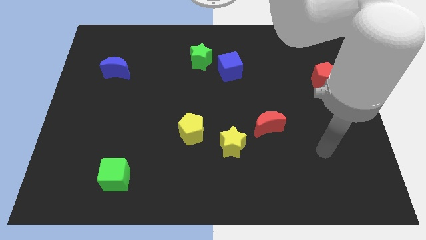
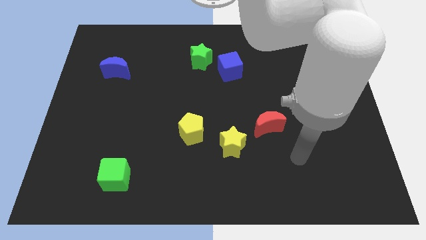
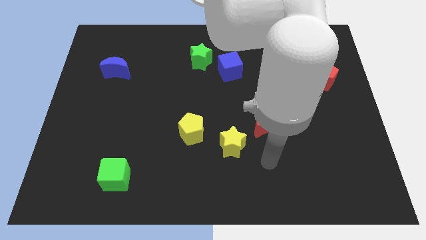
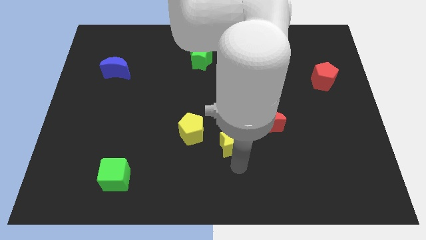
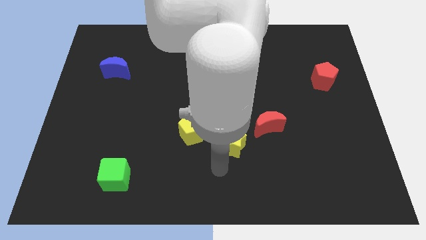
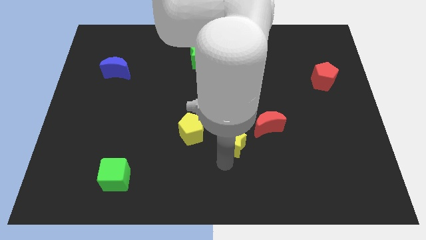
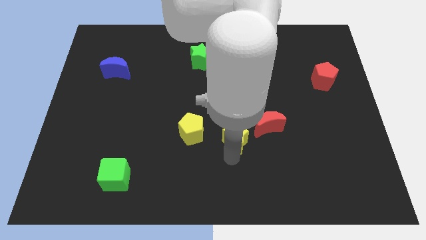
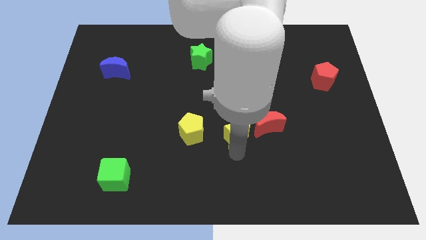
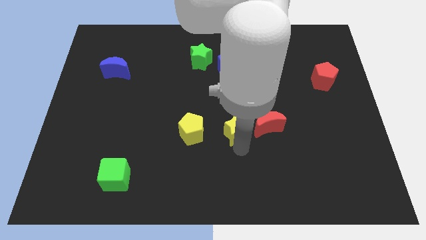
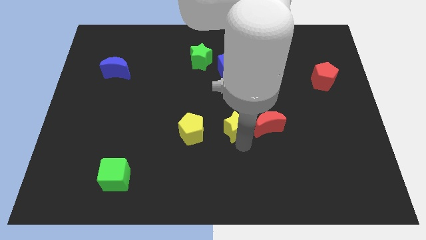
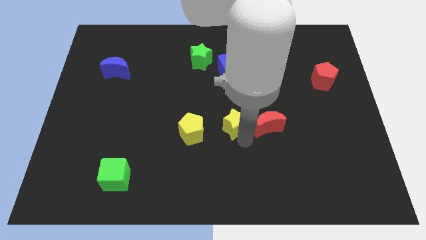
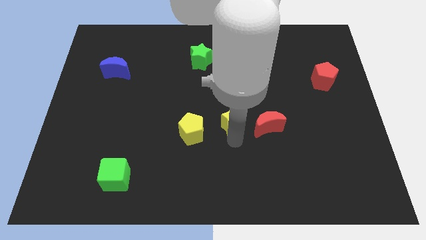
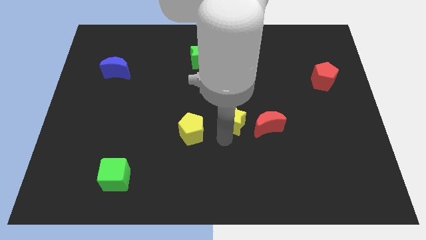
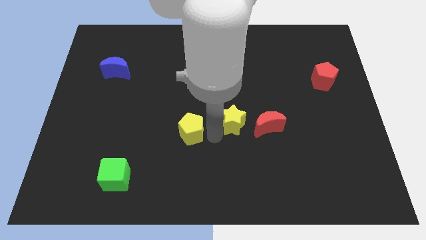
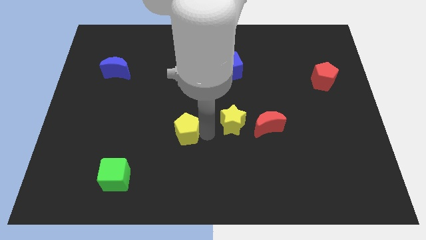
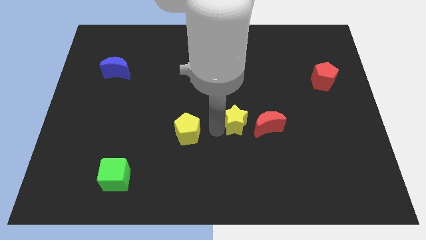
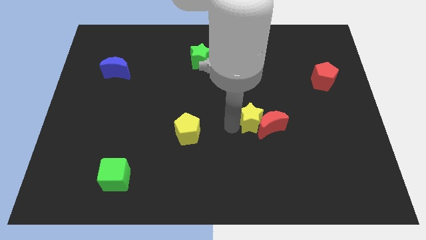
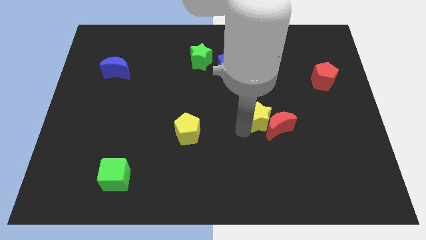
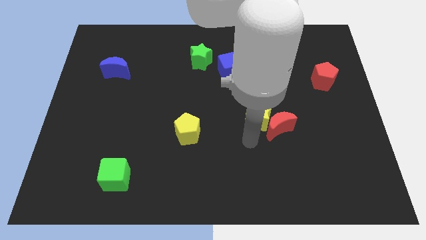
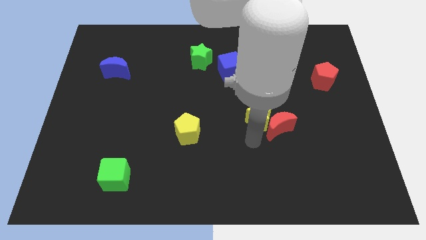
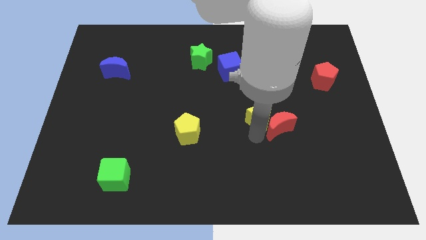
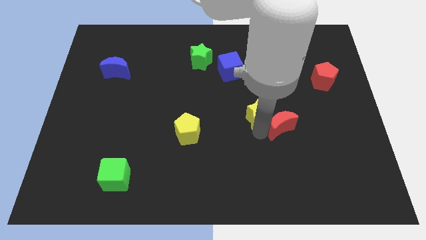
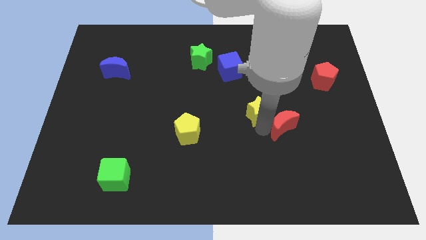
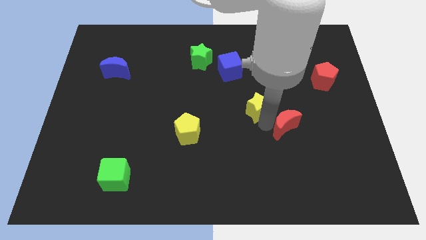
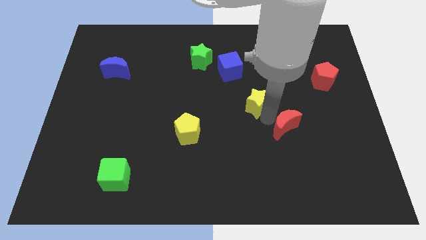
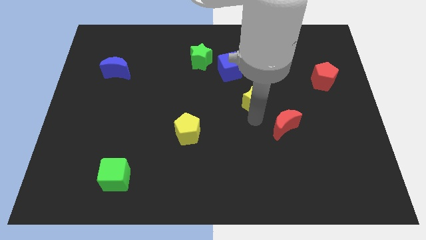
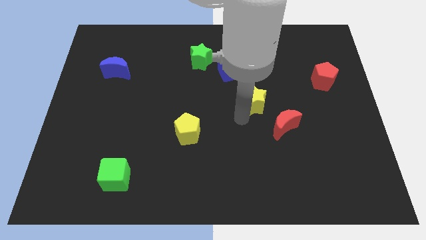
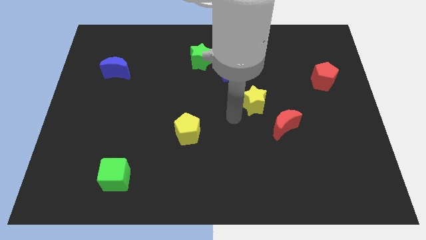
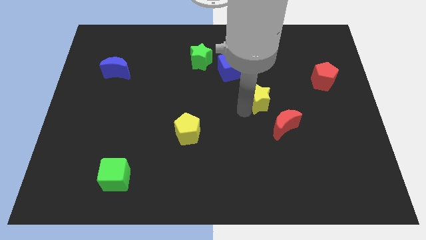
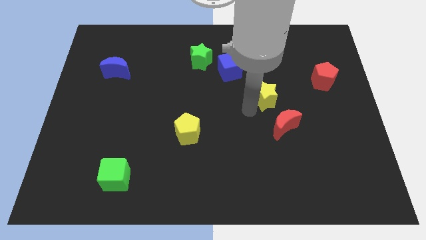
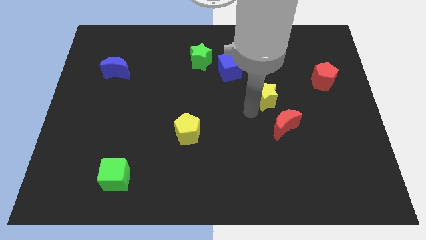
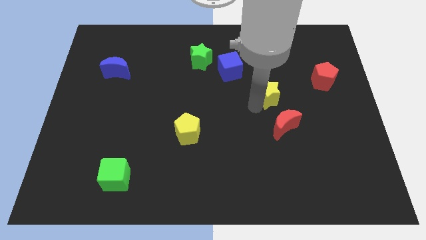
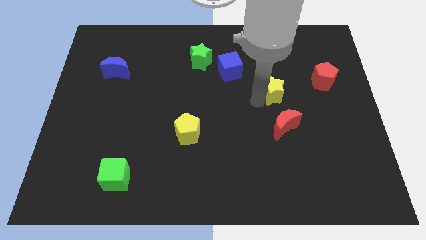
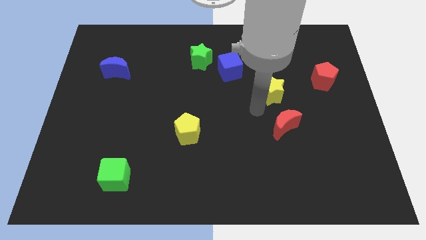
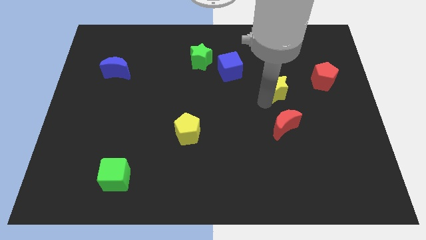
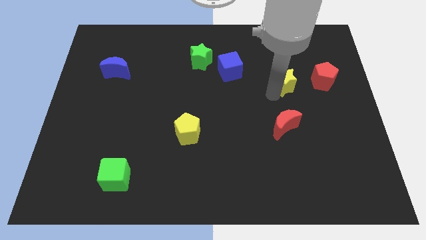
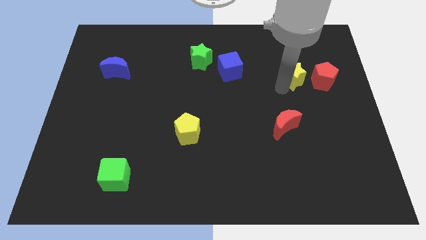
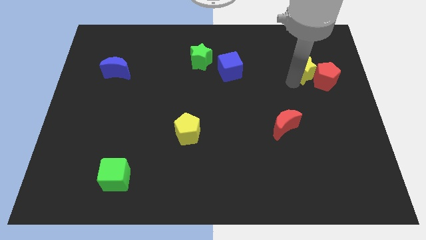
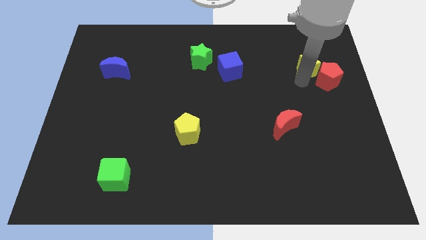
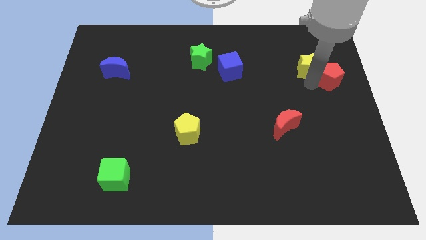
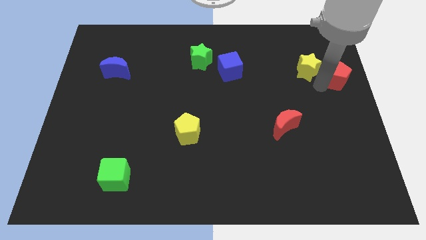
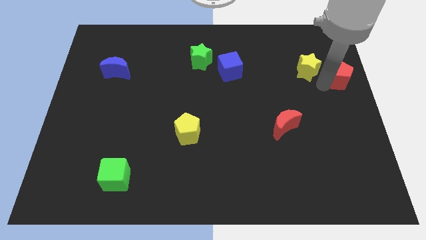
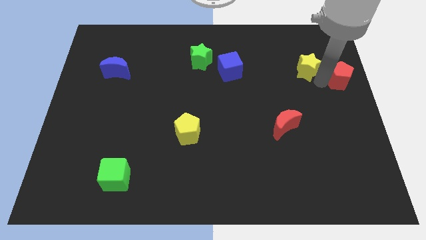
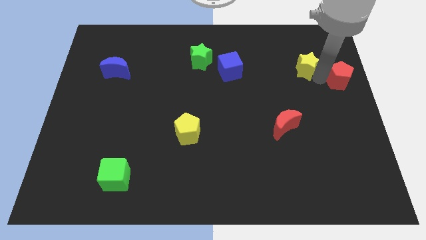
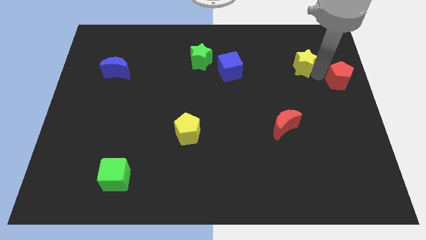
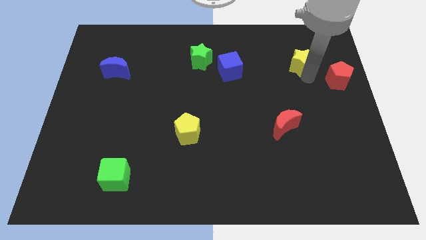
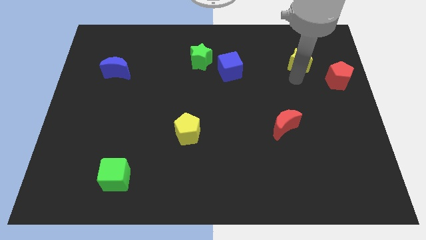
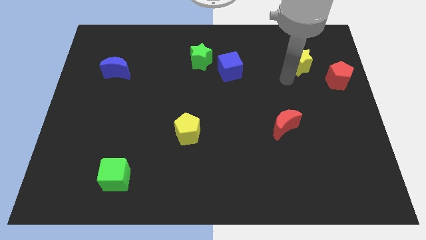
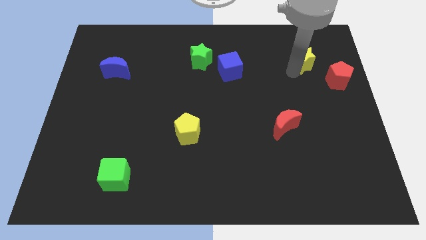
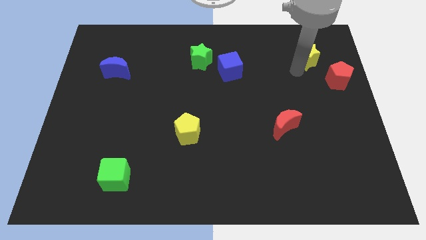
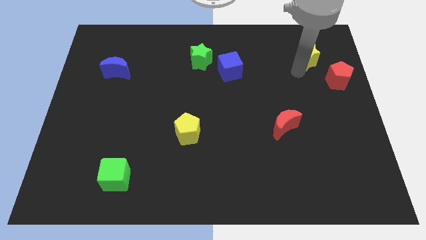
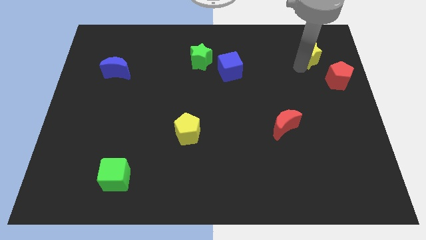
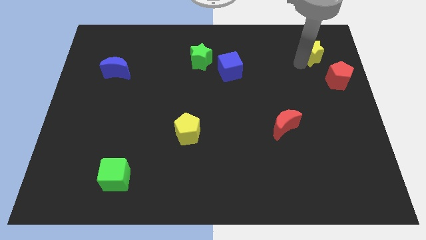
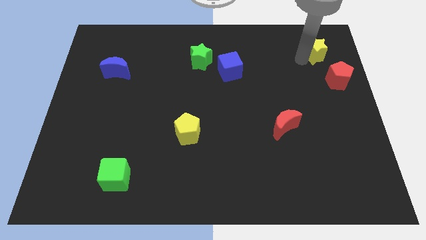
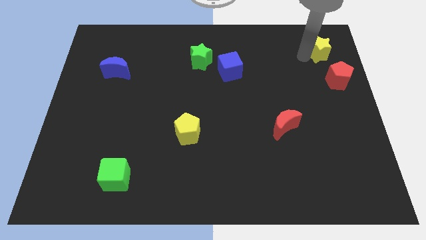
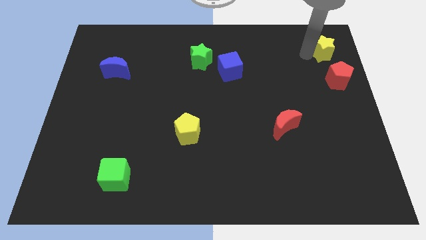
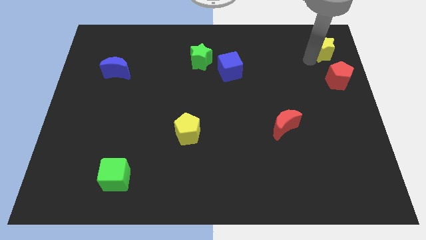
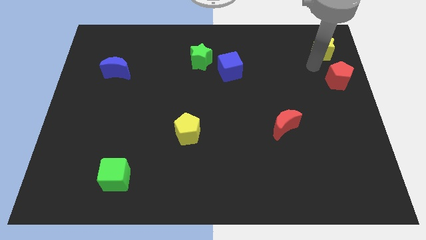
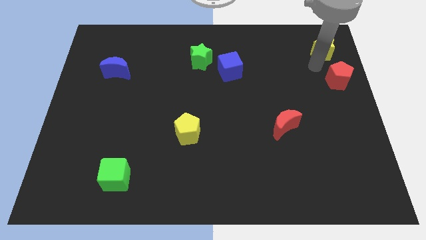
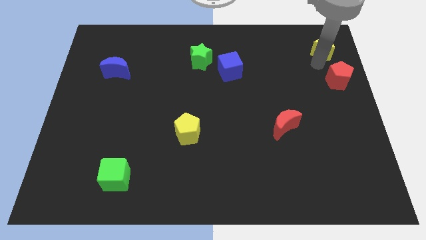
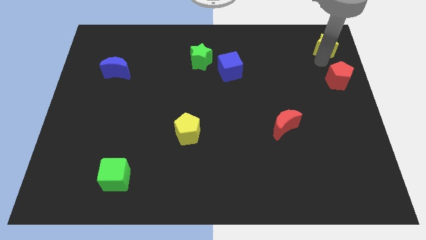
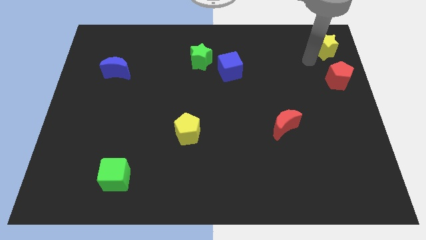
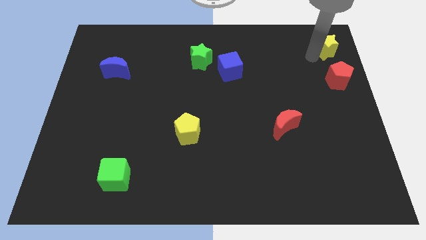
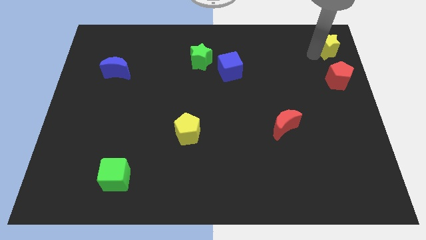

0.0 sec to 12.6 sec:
put the yellow star to the top right
